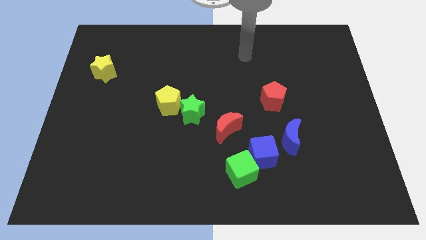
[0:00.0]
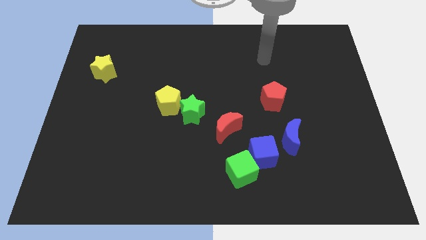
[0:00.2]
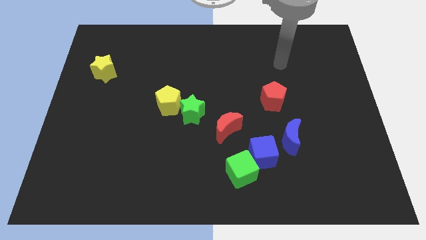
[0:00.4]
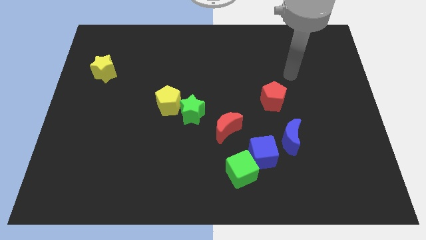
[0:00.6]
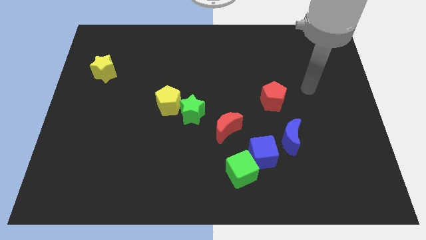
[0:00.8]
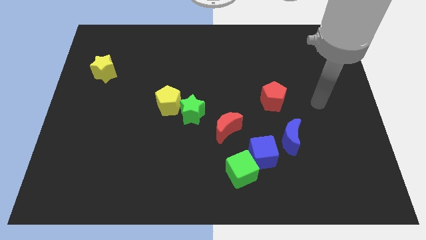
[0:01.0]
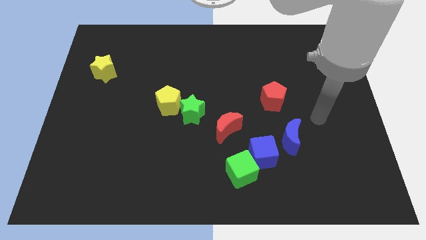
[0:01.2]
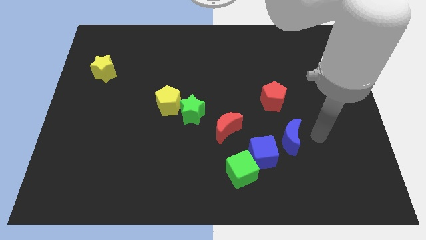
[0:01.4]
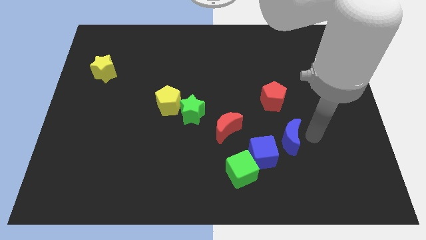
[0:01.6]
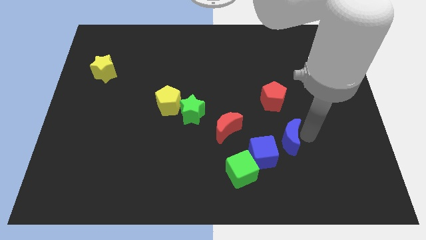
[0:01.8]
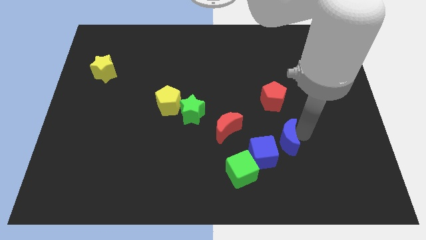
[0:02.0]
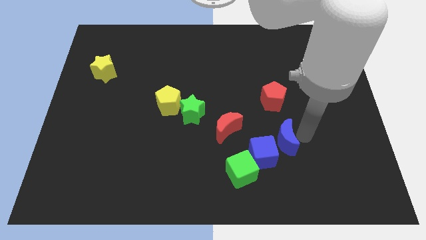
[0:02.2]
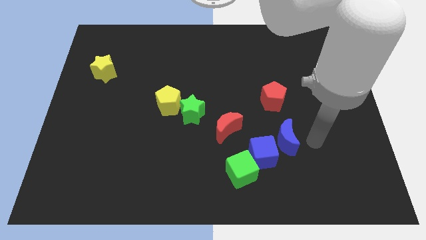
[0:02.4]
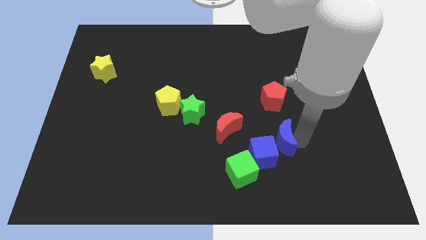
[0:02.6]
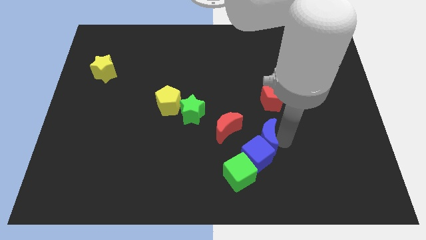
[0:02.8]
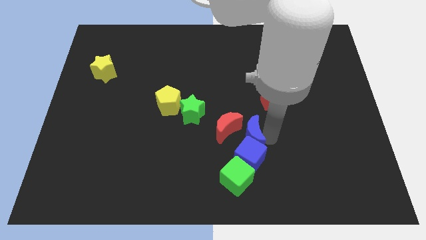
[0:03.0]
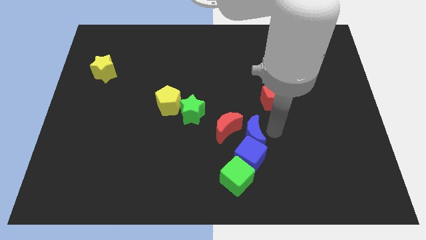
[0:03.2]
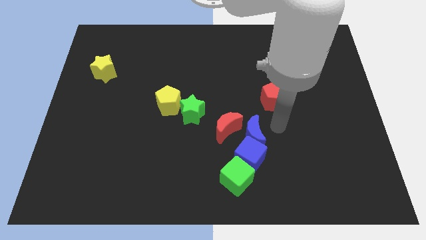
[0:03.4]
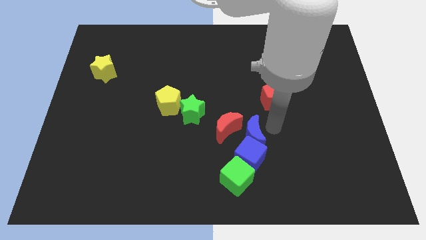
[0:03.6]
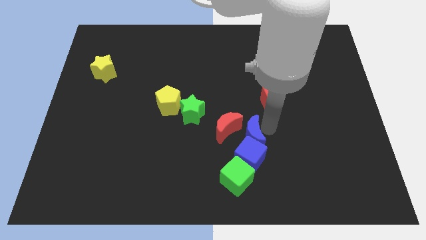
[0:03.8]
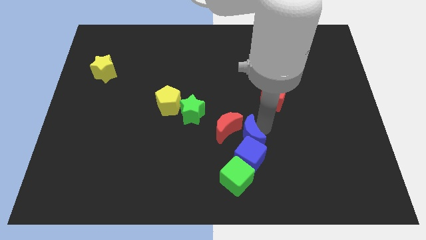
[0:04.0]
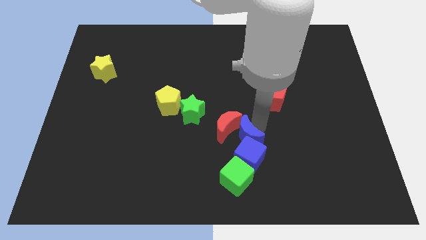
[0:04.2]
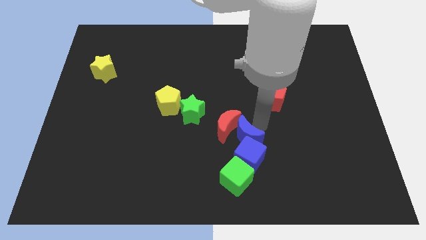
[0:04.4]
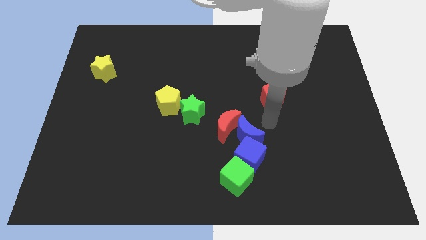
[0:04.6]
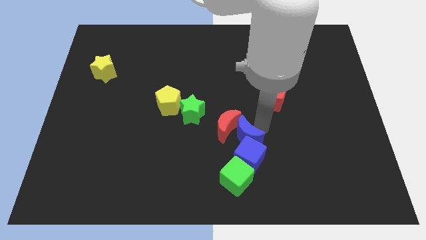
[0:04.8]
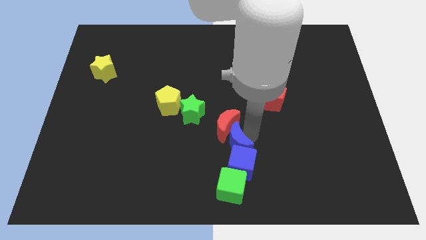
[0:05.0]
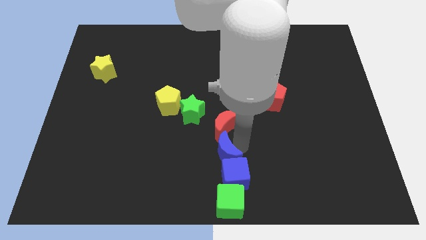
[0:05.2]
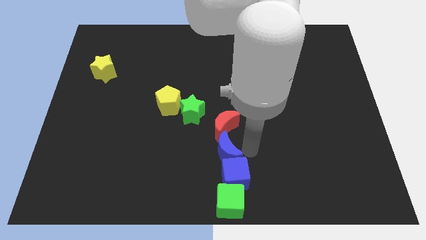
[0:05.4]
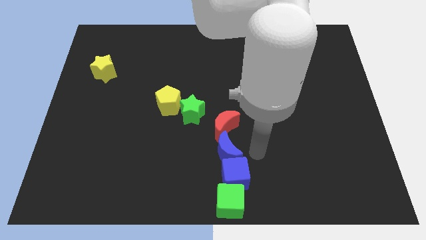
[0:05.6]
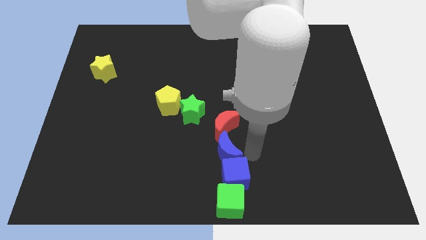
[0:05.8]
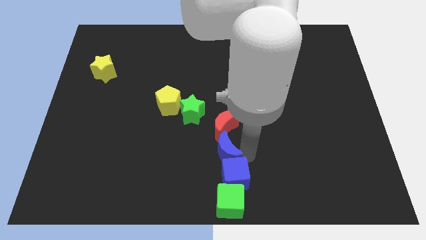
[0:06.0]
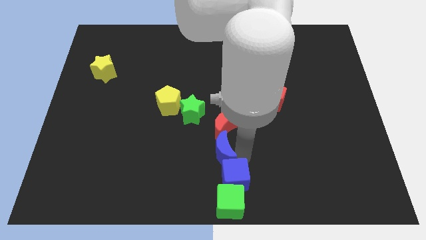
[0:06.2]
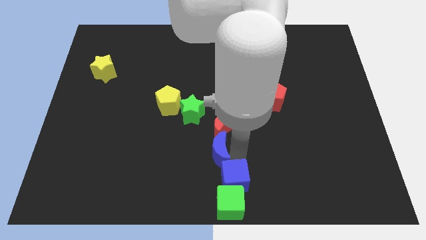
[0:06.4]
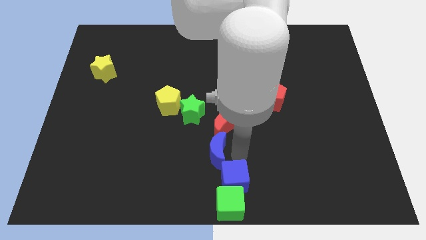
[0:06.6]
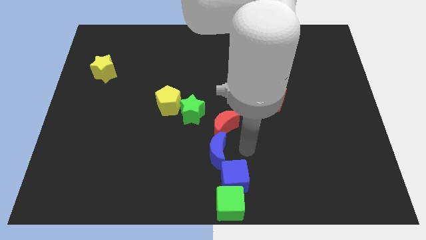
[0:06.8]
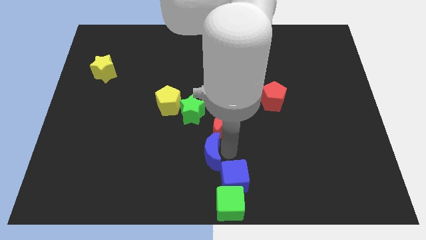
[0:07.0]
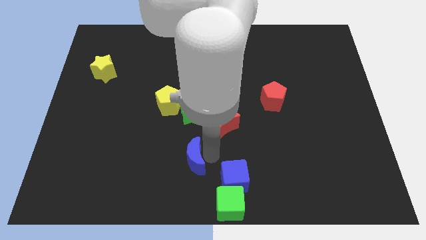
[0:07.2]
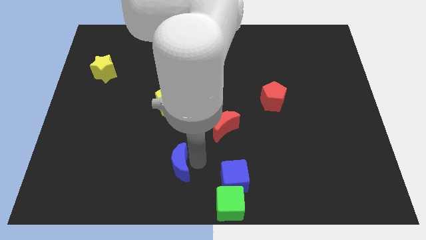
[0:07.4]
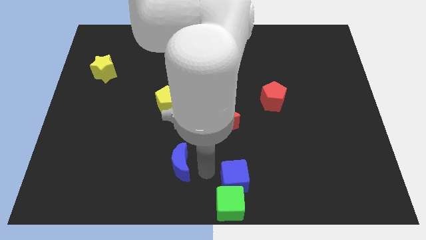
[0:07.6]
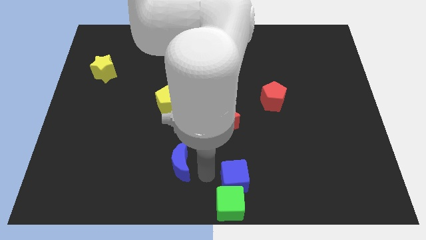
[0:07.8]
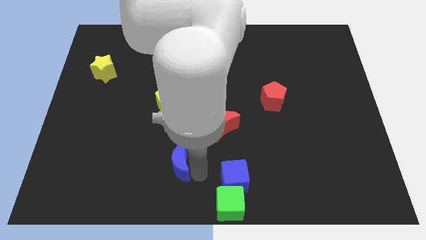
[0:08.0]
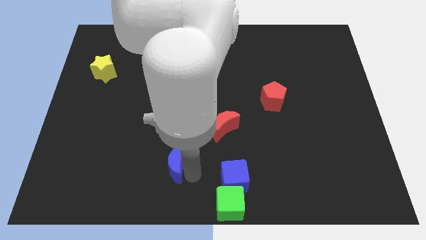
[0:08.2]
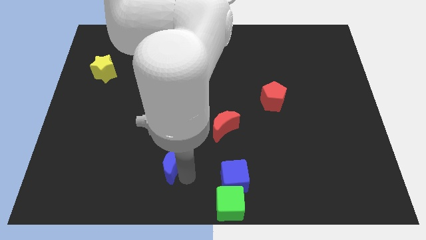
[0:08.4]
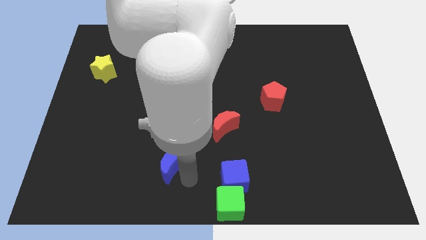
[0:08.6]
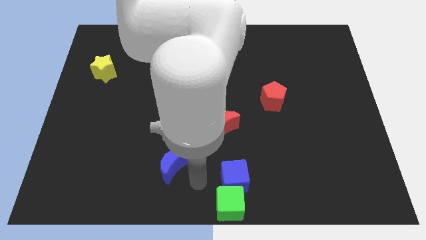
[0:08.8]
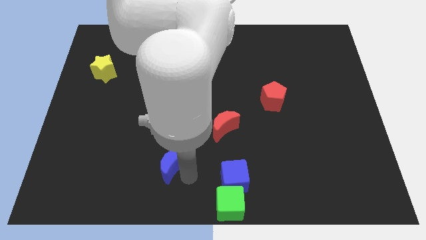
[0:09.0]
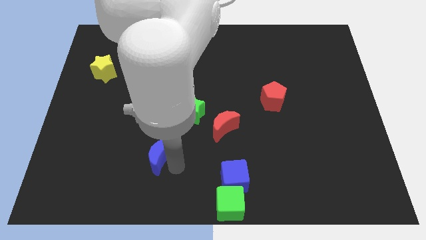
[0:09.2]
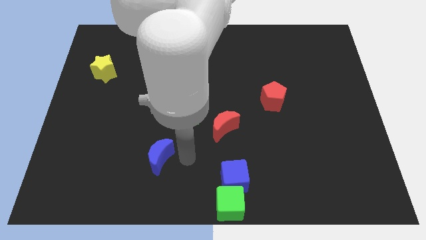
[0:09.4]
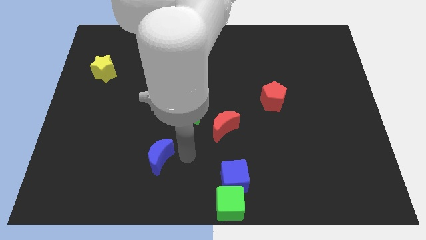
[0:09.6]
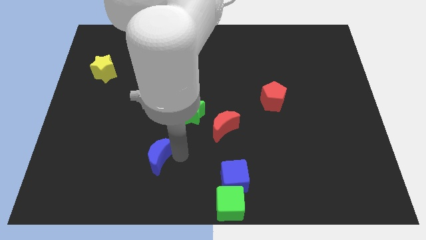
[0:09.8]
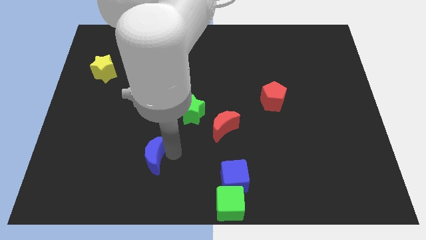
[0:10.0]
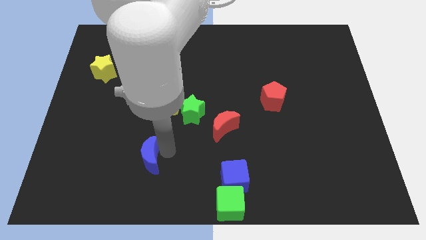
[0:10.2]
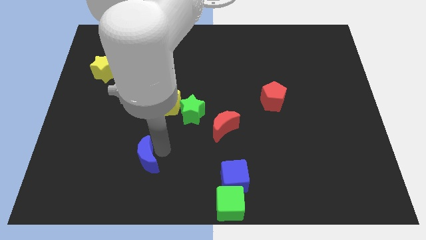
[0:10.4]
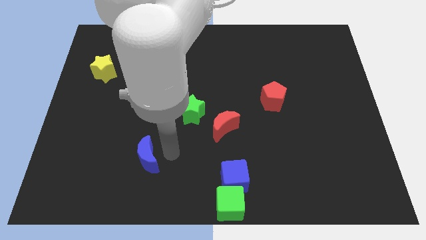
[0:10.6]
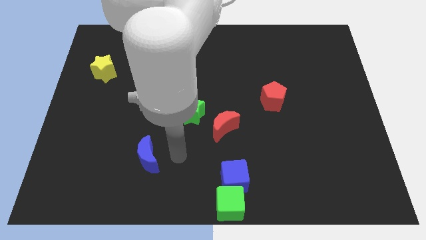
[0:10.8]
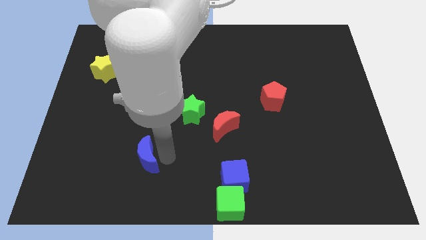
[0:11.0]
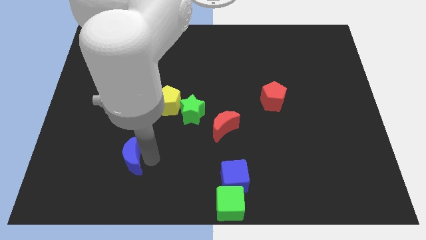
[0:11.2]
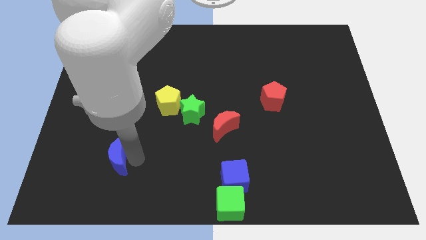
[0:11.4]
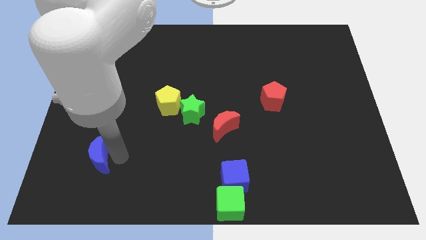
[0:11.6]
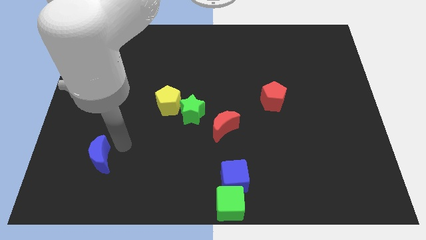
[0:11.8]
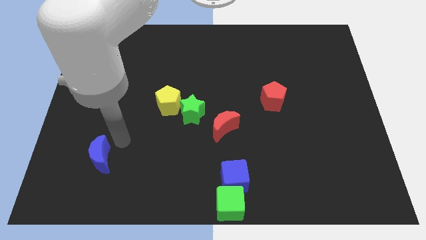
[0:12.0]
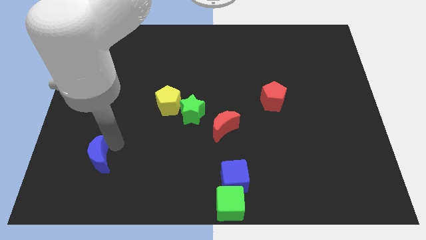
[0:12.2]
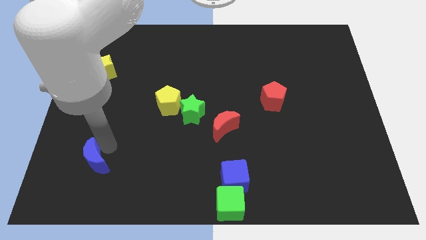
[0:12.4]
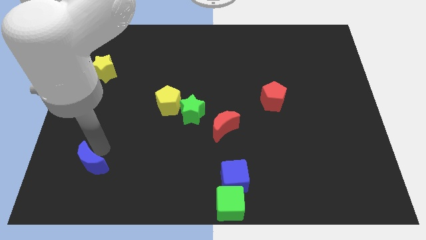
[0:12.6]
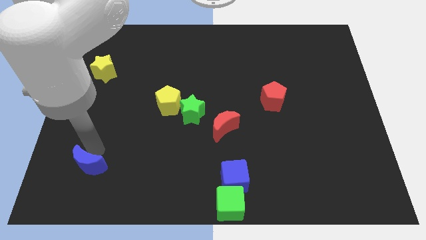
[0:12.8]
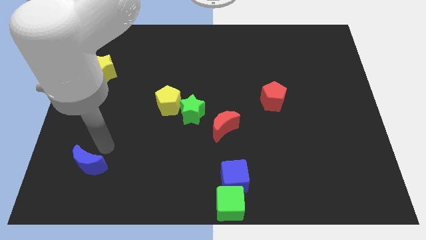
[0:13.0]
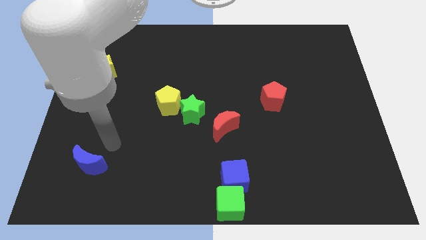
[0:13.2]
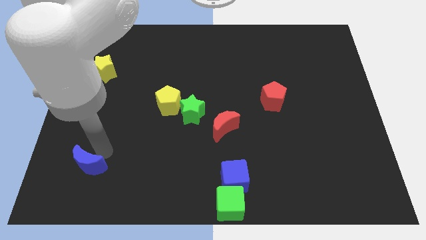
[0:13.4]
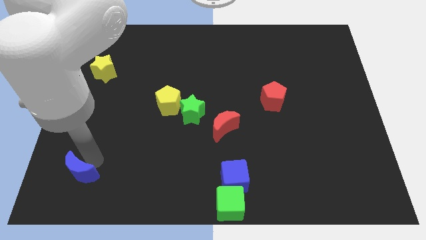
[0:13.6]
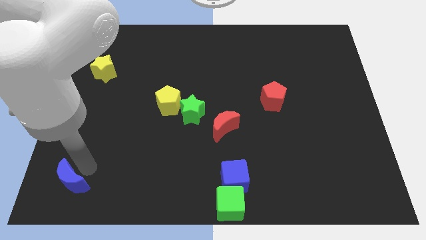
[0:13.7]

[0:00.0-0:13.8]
put the blue moon to the bottom left of the board
